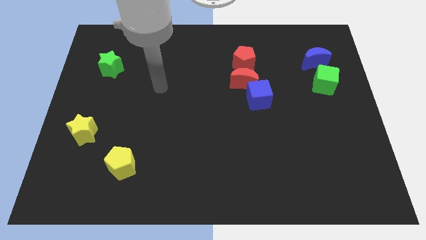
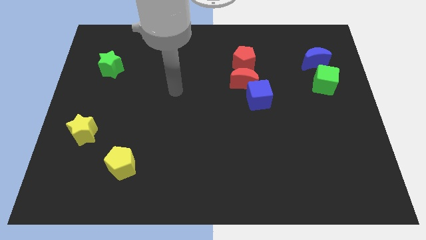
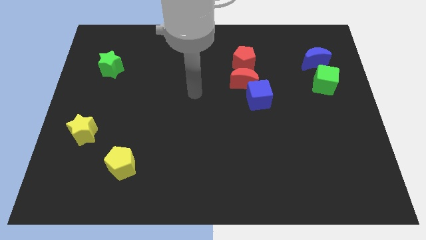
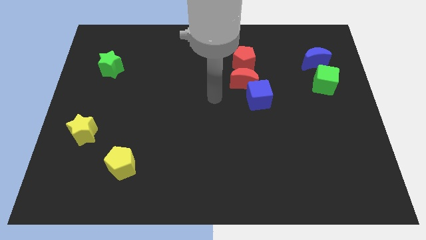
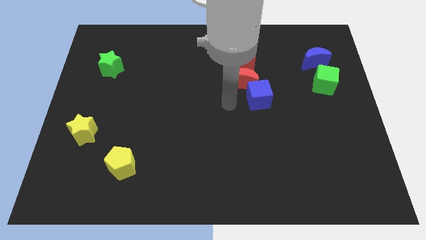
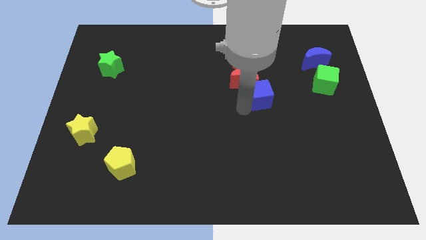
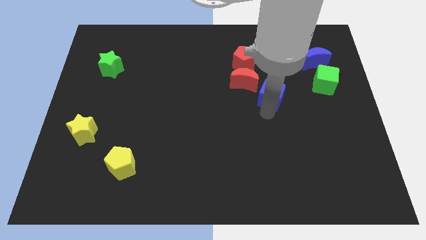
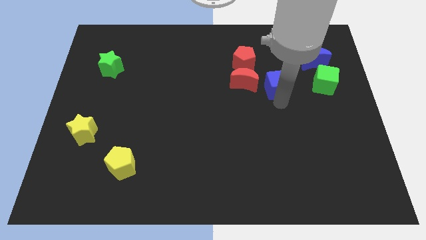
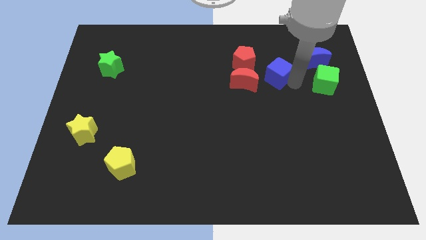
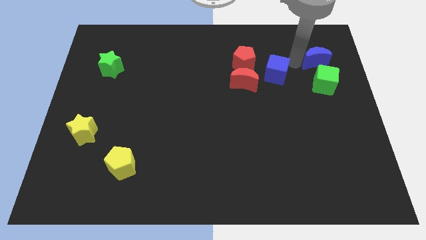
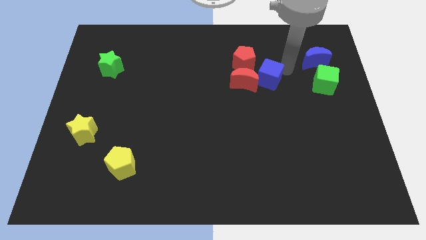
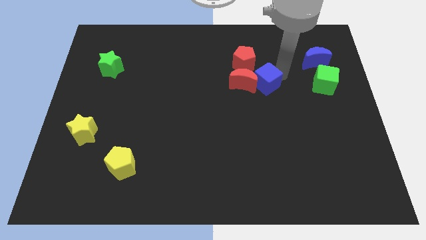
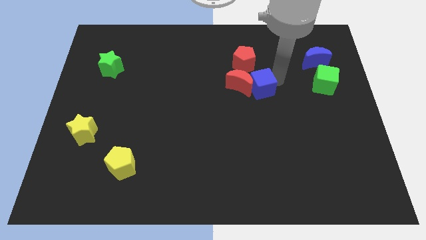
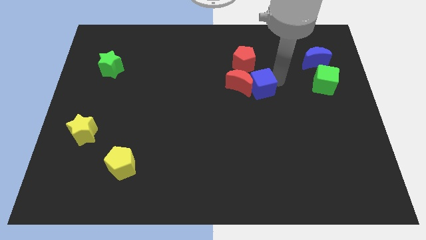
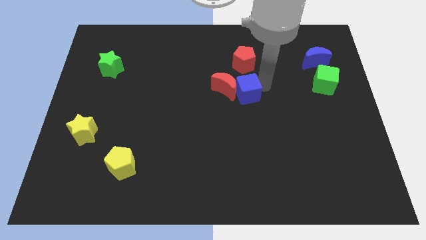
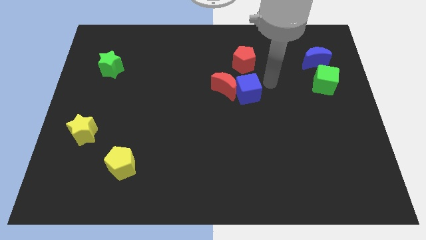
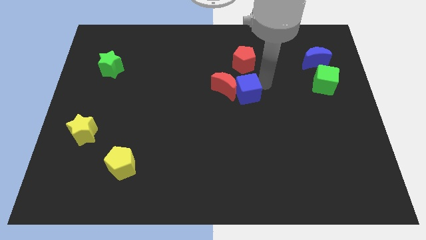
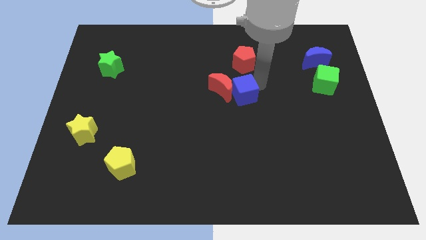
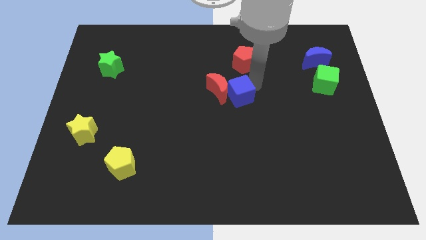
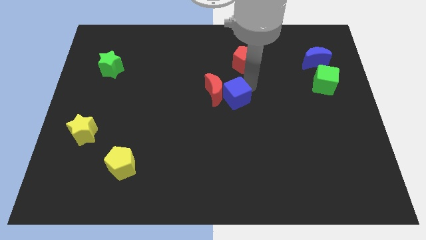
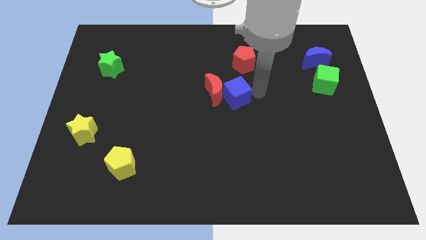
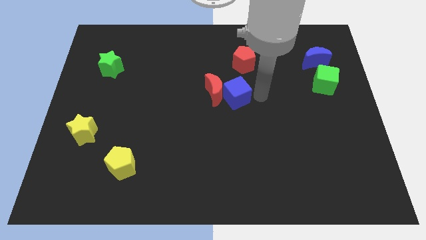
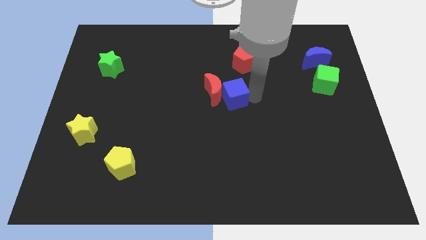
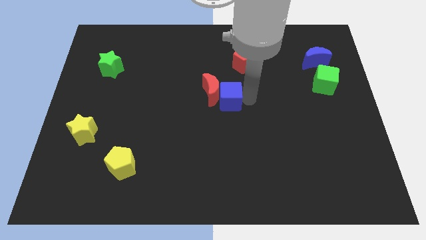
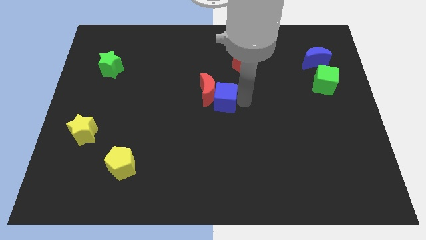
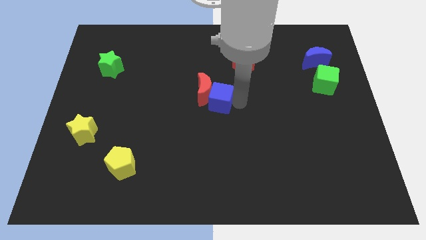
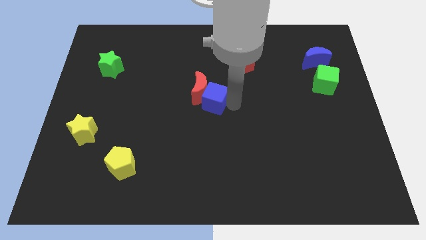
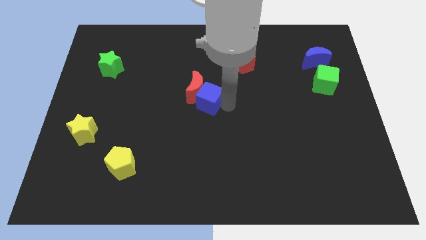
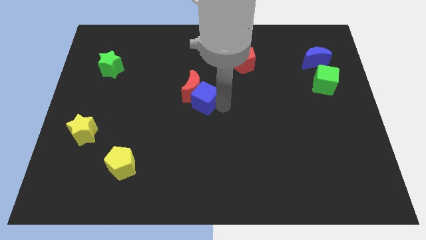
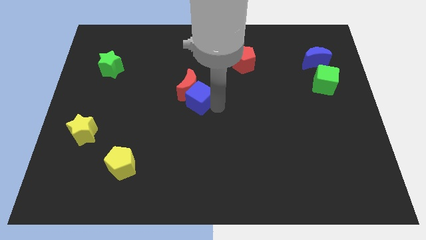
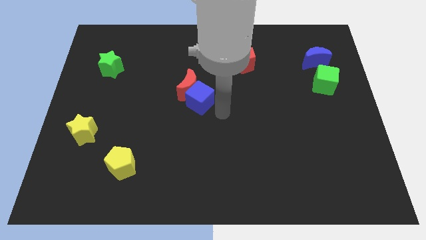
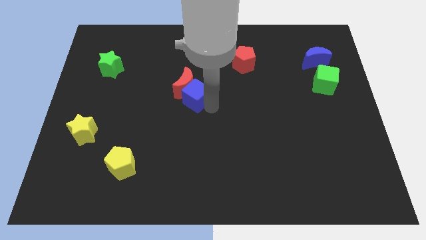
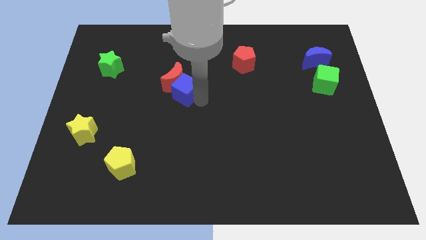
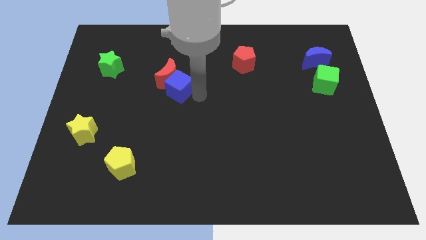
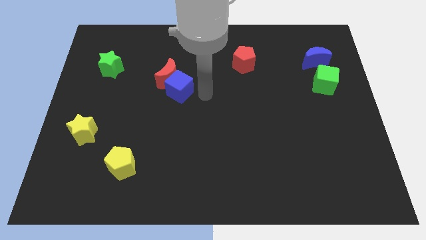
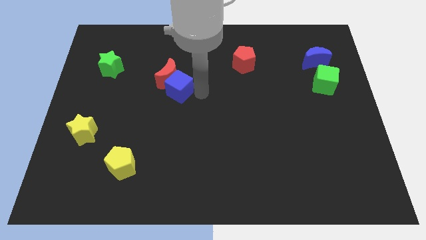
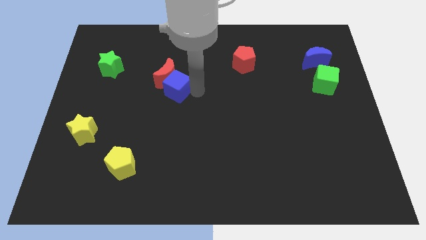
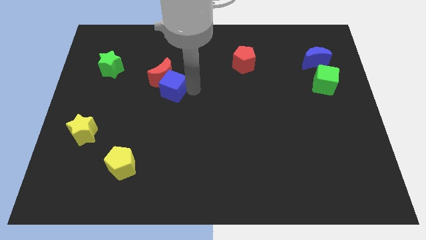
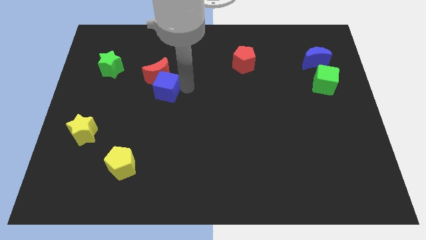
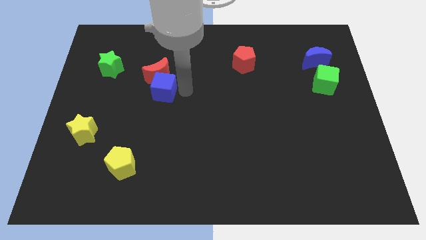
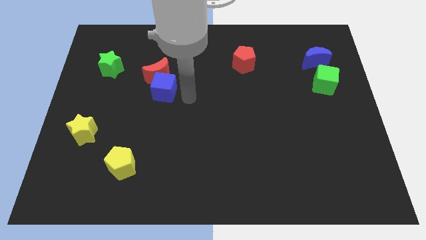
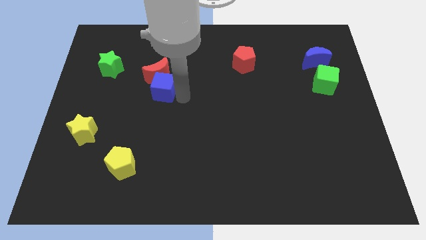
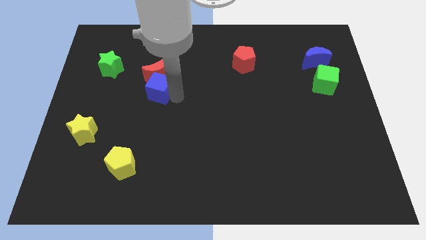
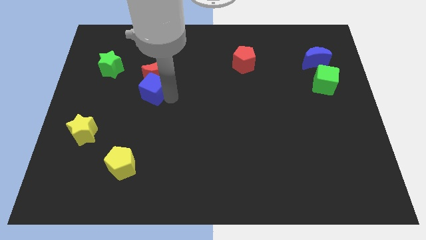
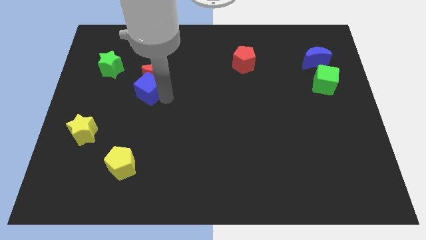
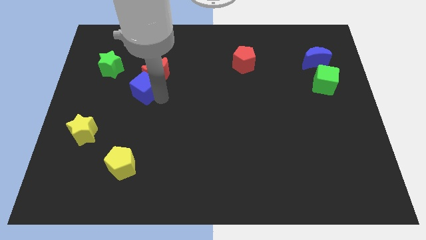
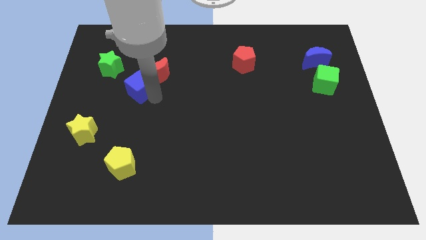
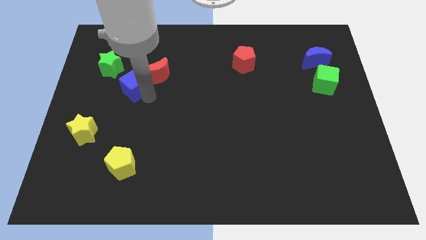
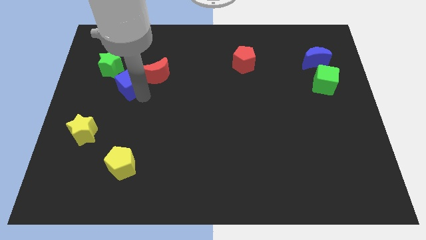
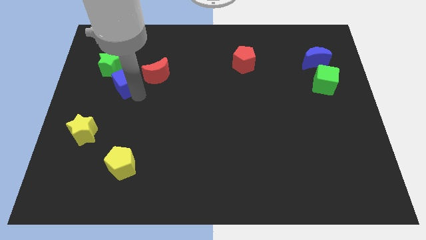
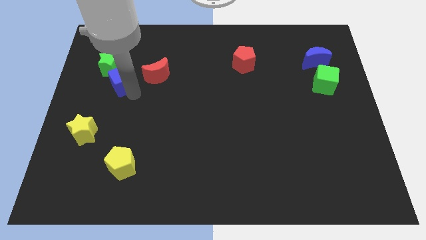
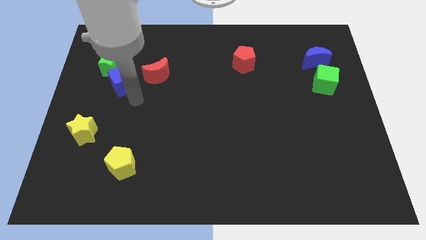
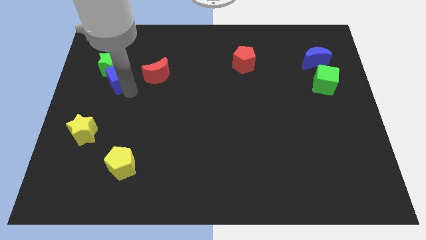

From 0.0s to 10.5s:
push the blue cube towards the green star

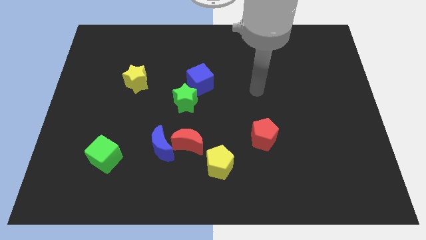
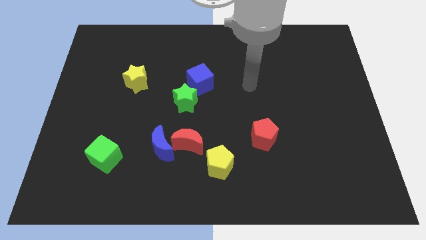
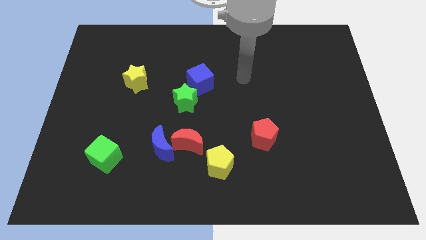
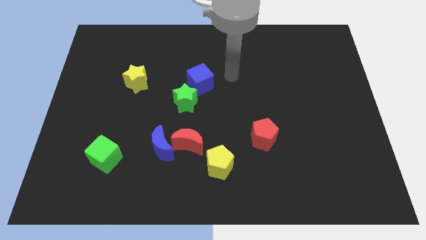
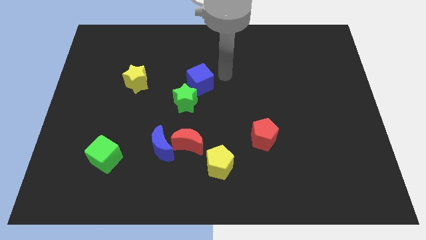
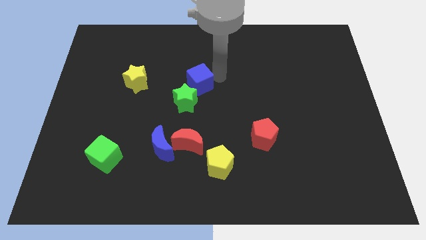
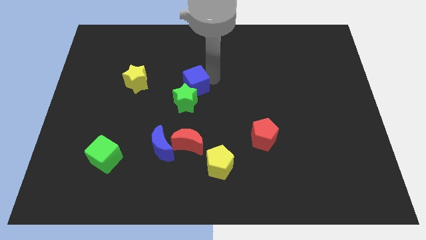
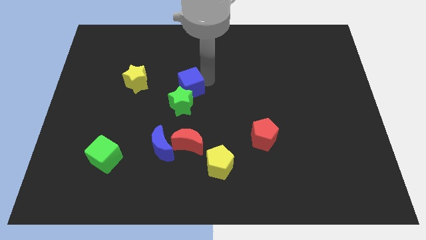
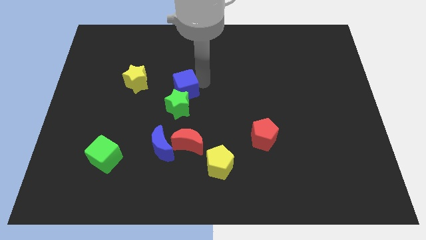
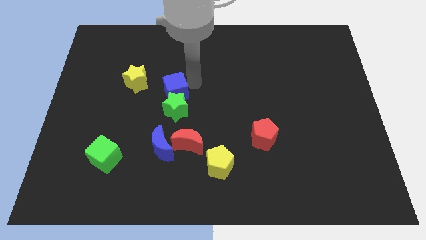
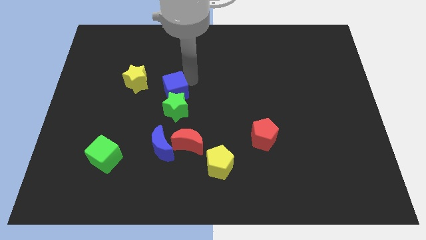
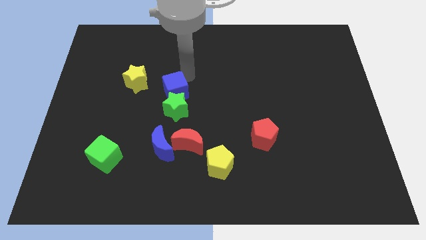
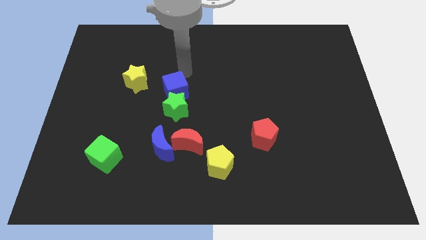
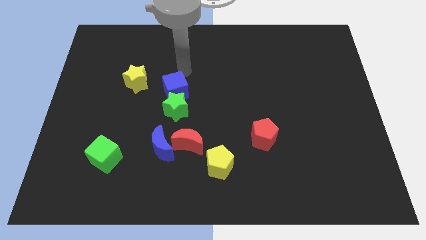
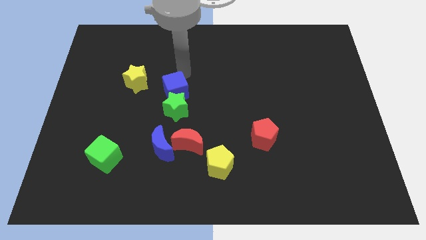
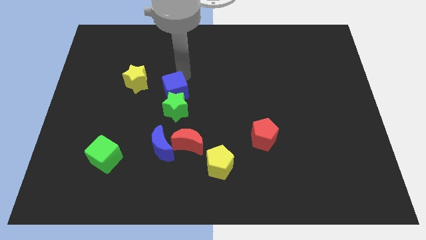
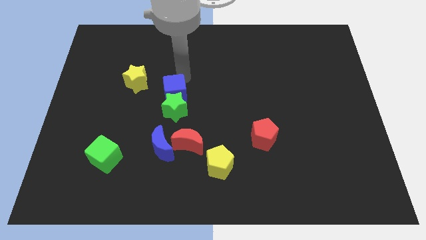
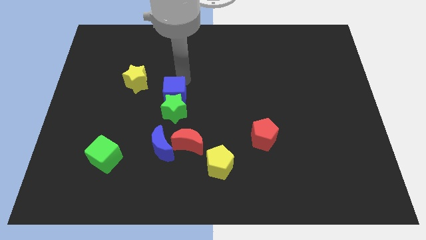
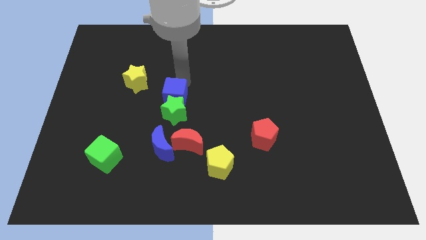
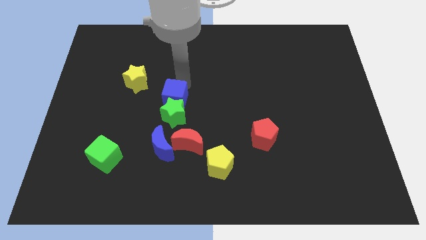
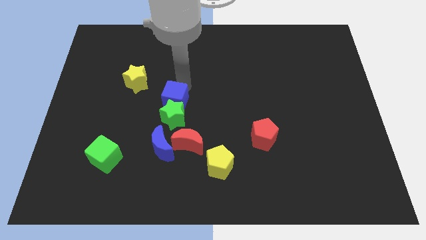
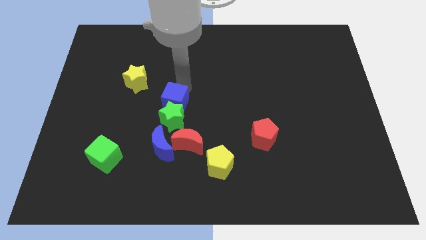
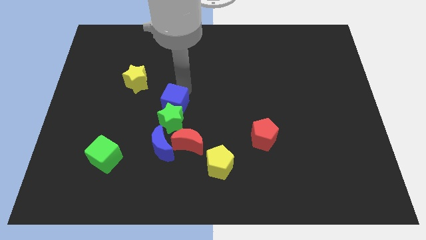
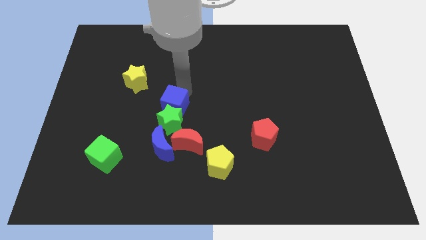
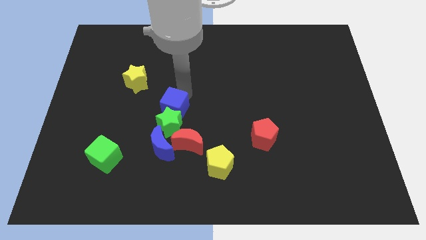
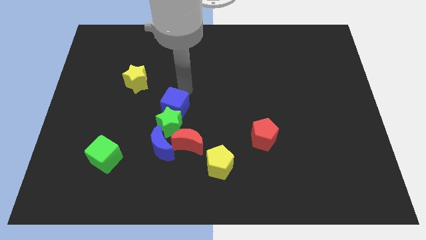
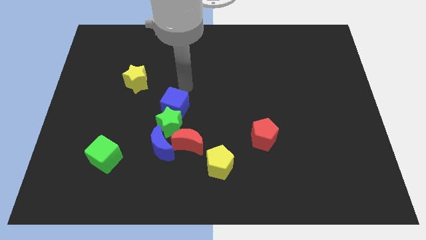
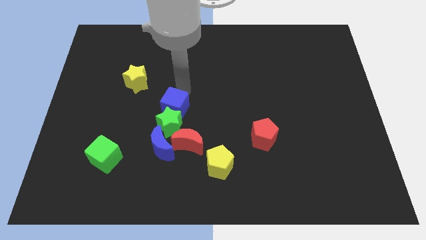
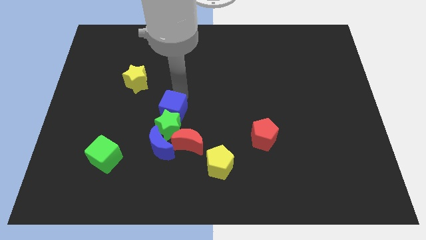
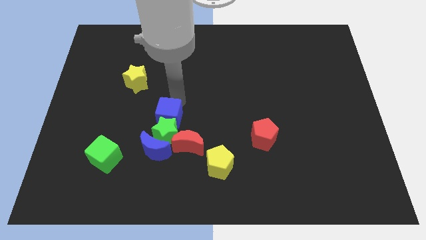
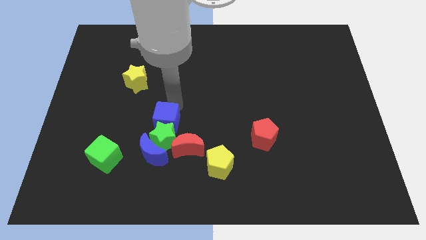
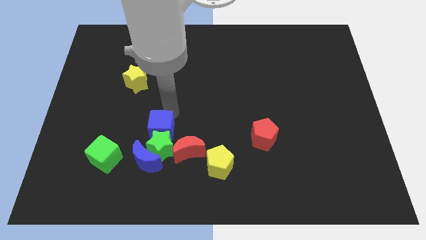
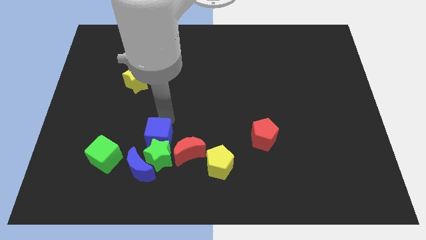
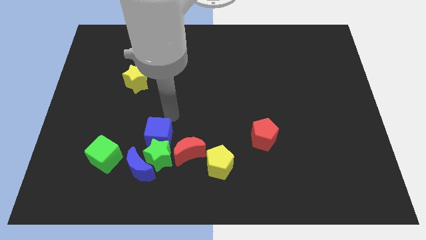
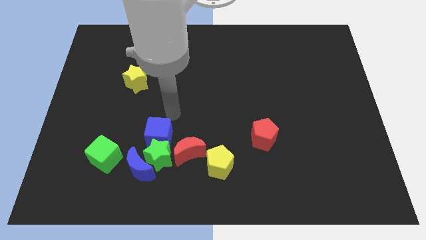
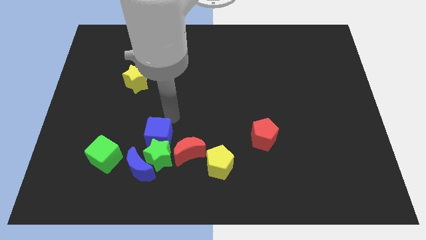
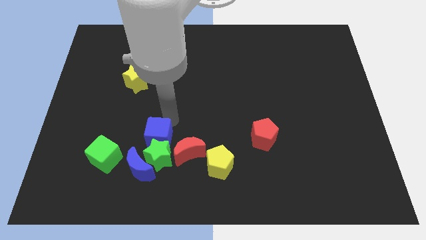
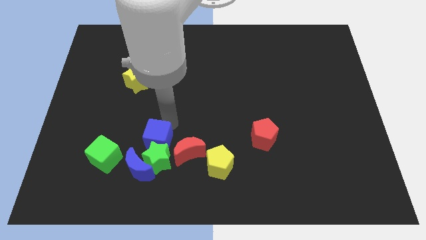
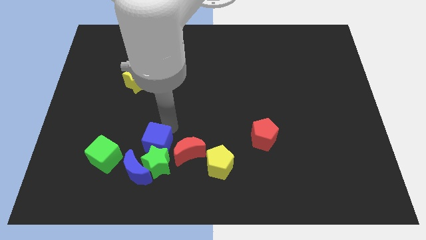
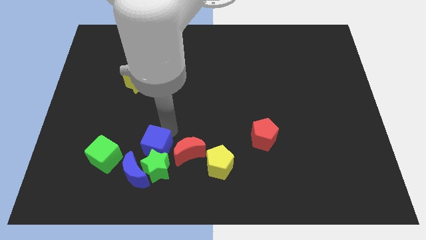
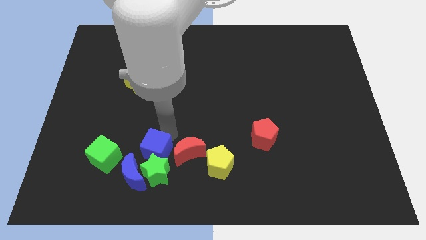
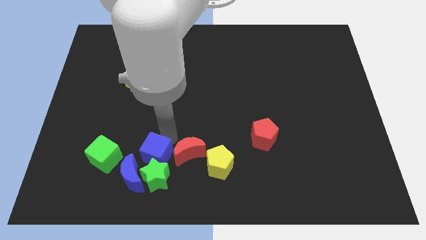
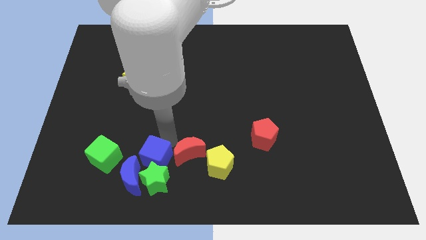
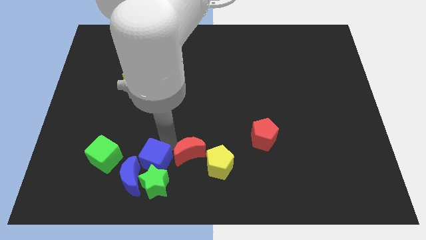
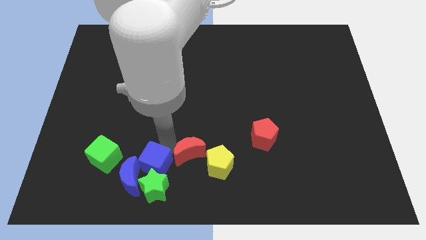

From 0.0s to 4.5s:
put the blue cube towards the blue moon
